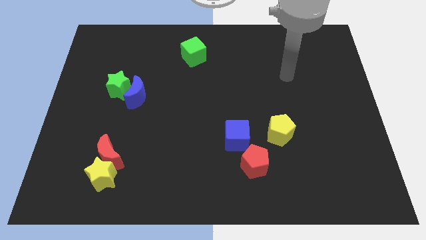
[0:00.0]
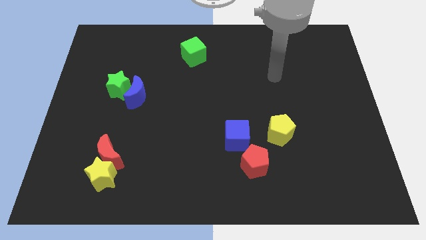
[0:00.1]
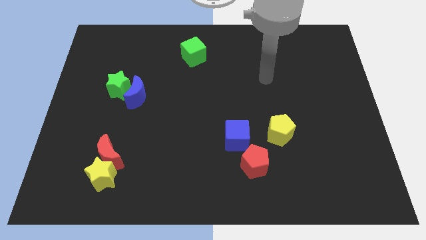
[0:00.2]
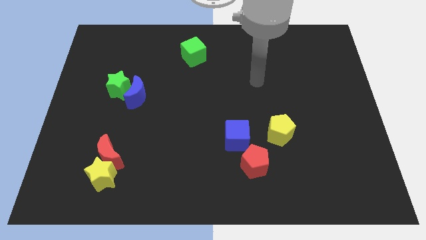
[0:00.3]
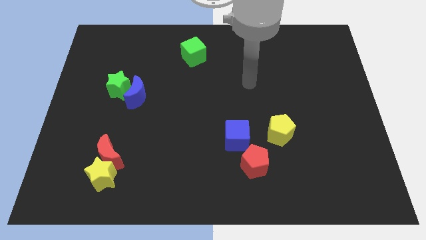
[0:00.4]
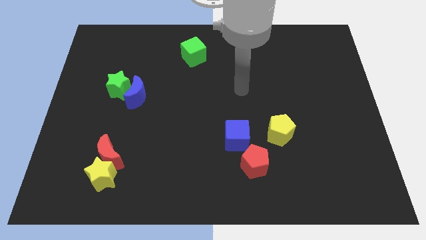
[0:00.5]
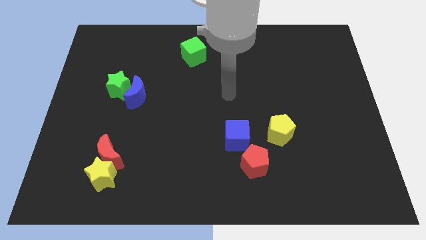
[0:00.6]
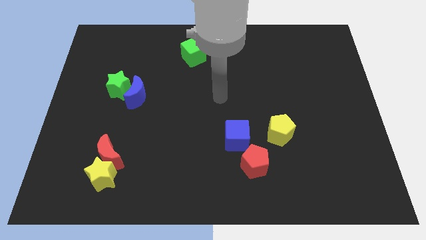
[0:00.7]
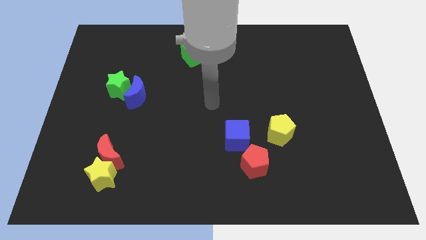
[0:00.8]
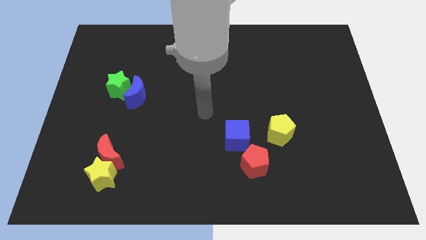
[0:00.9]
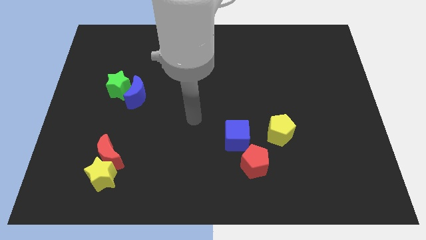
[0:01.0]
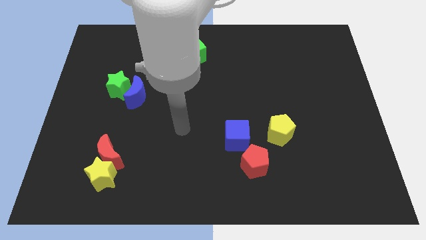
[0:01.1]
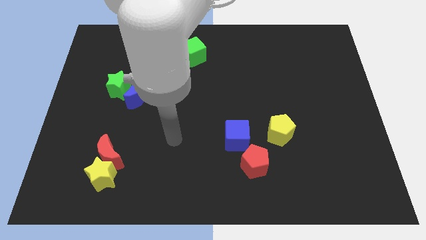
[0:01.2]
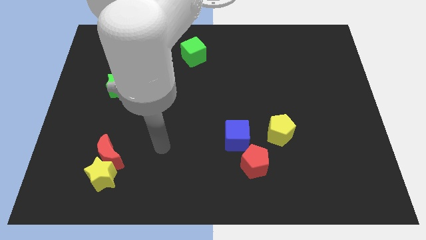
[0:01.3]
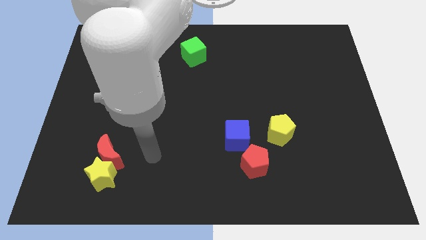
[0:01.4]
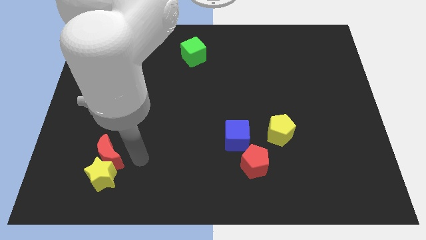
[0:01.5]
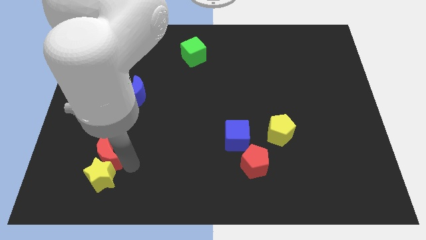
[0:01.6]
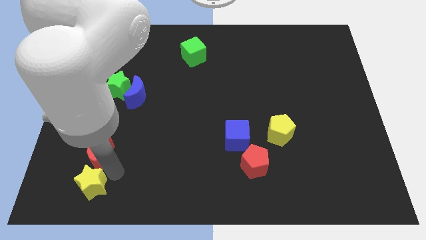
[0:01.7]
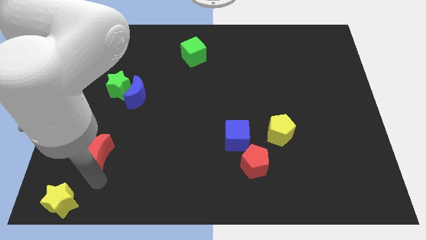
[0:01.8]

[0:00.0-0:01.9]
pull the red moon apart from the yellow star

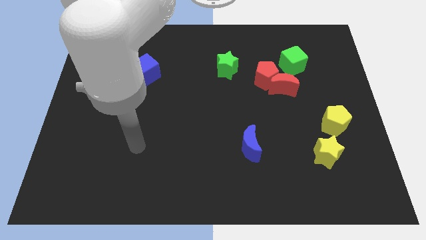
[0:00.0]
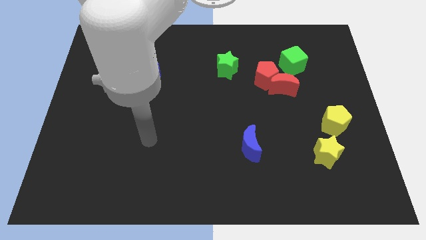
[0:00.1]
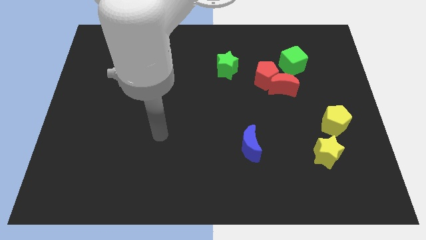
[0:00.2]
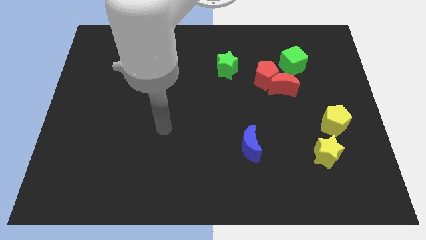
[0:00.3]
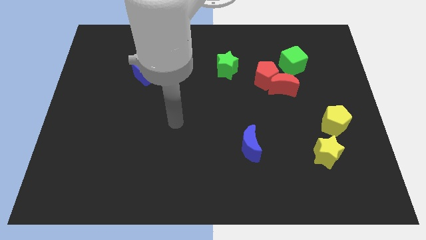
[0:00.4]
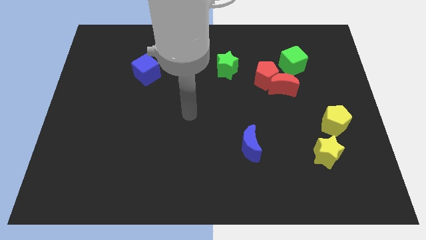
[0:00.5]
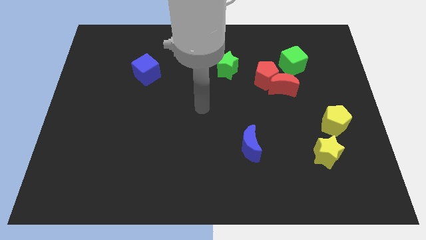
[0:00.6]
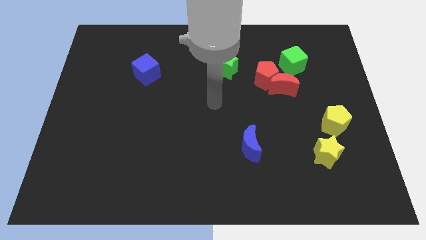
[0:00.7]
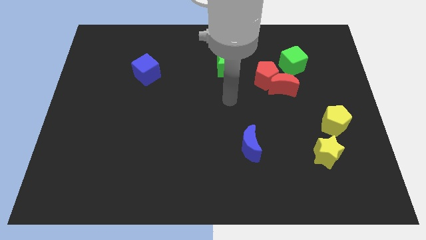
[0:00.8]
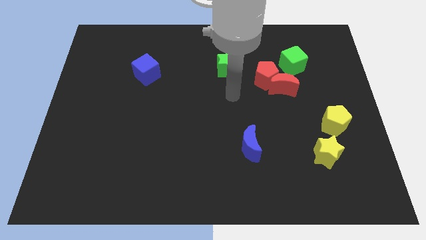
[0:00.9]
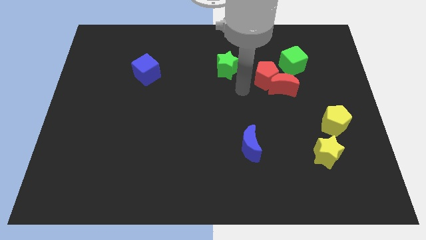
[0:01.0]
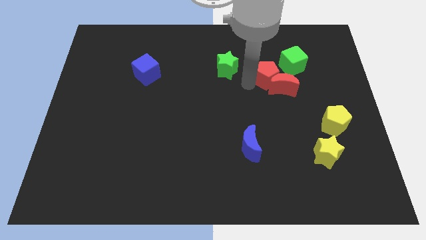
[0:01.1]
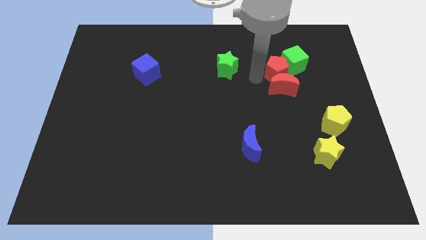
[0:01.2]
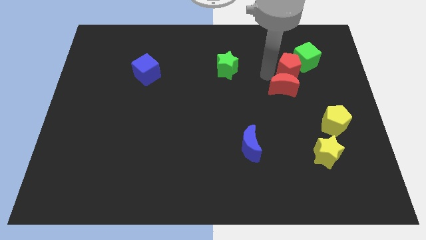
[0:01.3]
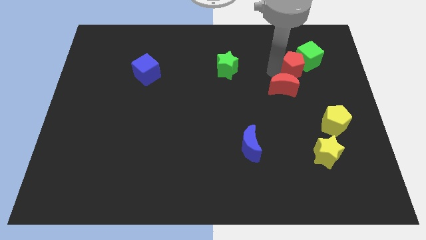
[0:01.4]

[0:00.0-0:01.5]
move the red moon away from the red pentagon and green cube

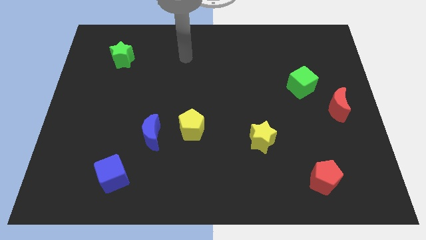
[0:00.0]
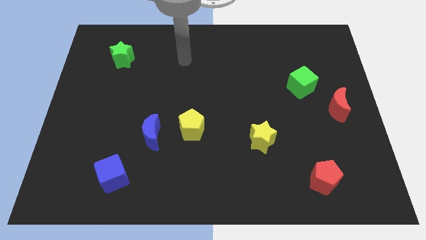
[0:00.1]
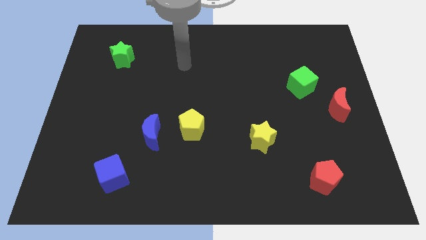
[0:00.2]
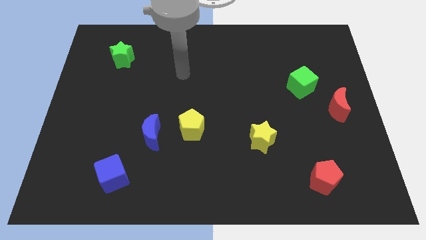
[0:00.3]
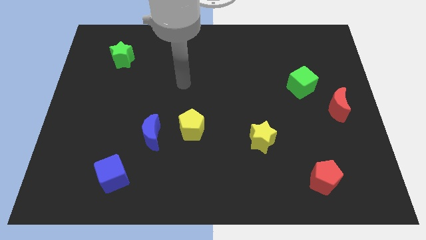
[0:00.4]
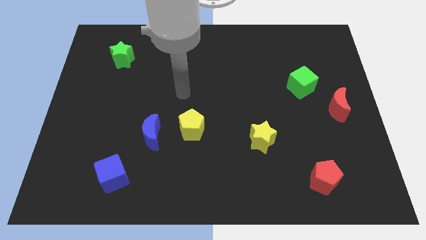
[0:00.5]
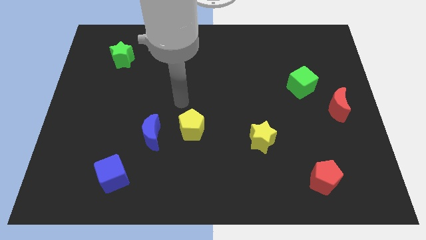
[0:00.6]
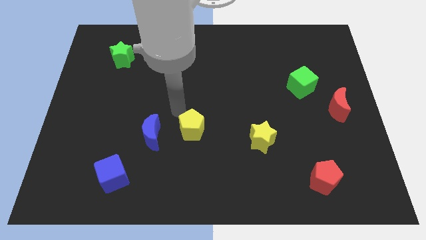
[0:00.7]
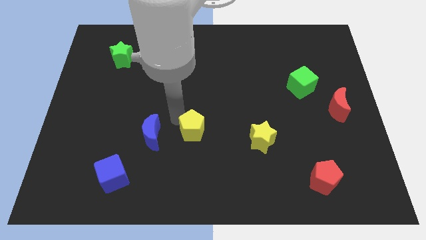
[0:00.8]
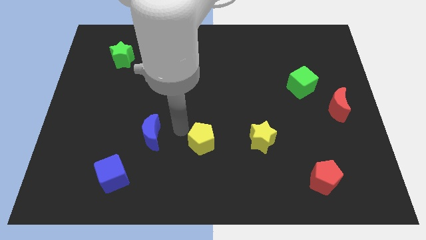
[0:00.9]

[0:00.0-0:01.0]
pull the blue moon apart from the yellow pentagon

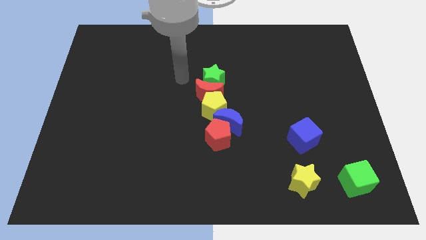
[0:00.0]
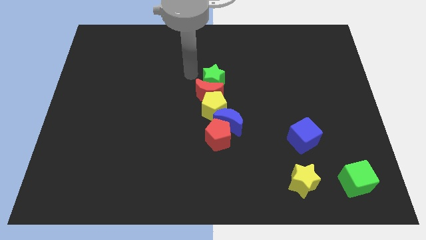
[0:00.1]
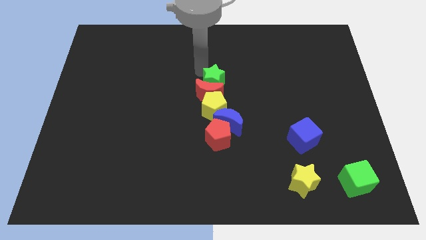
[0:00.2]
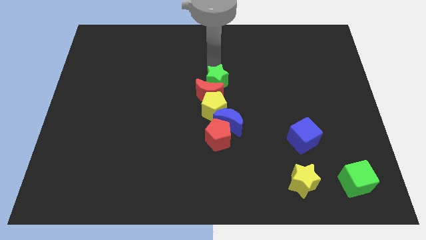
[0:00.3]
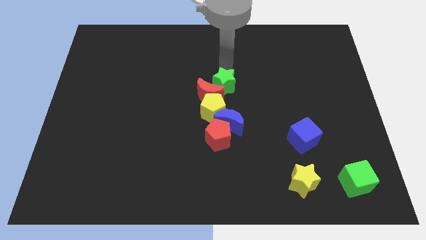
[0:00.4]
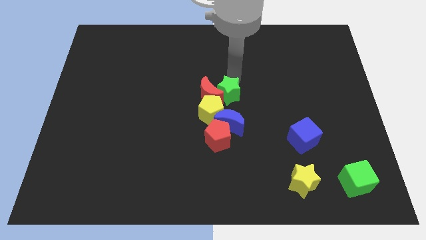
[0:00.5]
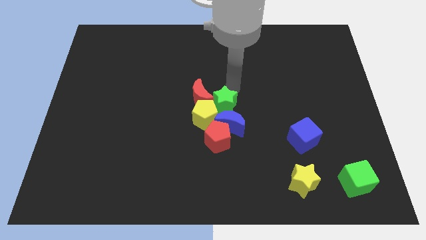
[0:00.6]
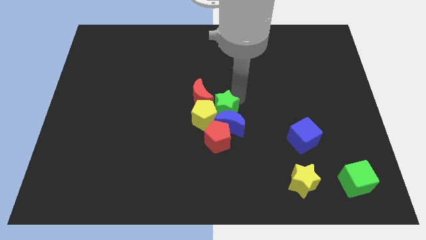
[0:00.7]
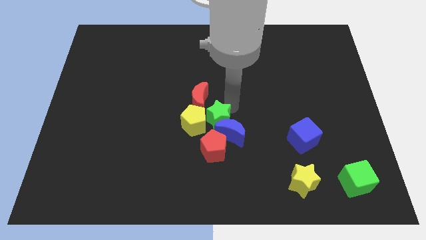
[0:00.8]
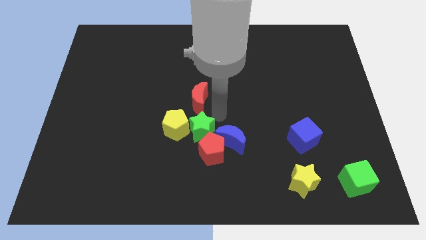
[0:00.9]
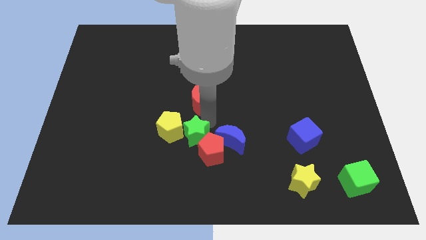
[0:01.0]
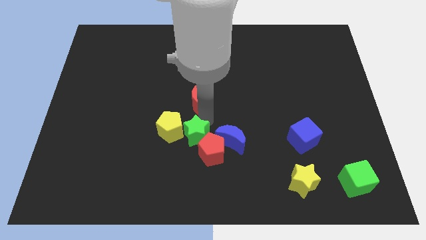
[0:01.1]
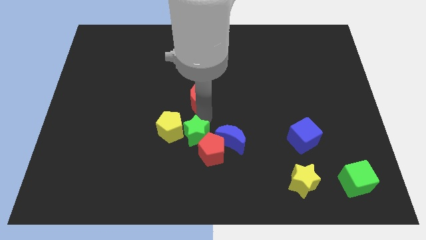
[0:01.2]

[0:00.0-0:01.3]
move the red moon away from the yellow pentagon, green star, and blue moon

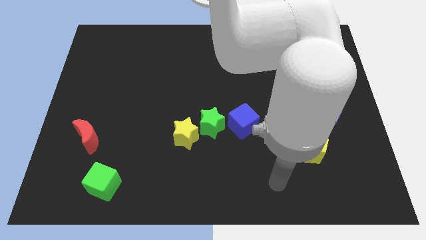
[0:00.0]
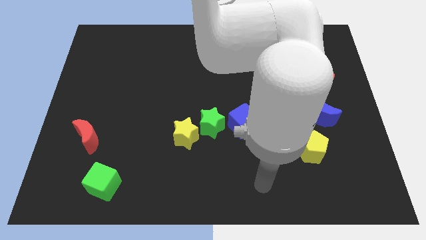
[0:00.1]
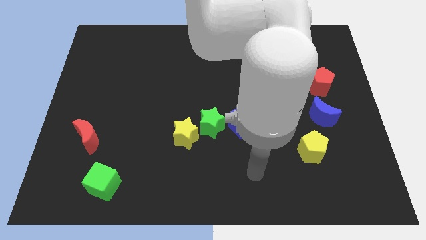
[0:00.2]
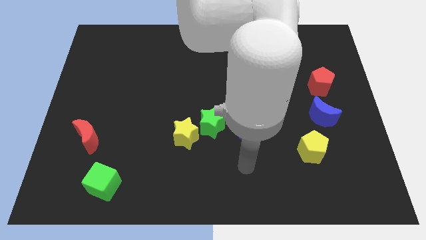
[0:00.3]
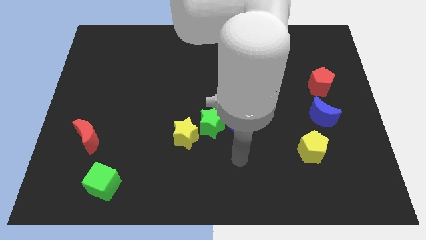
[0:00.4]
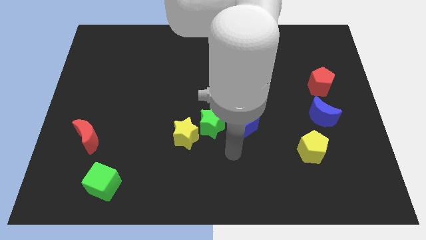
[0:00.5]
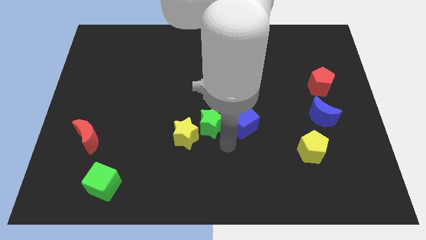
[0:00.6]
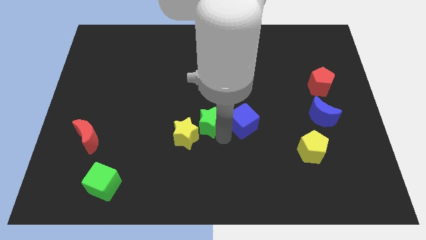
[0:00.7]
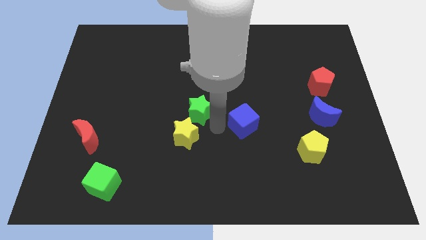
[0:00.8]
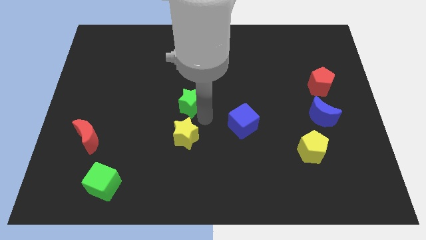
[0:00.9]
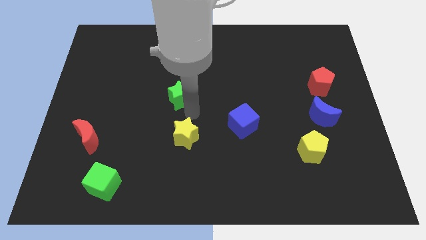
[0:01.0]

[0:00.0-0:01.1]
move the yellow star away from the green star

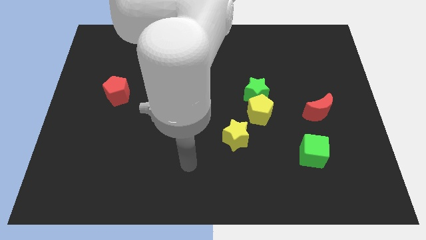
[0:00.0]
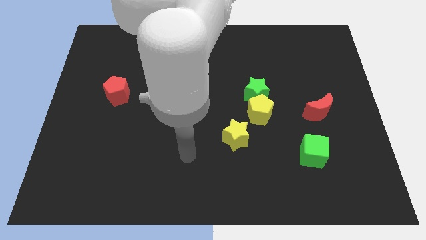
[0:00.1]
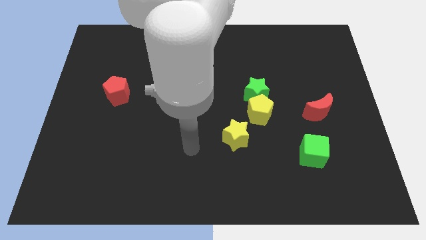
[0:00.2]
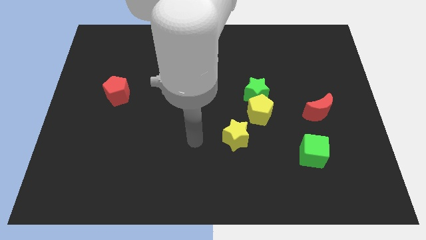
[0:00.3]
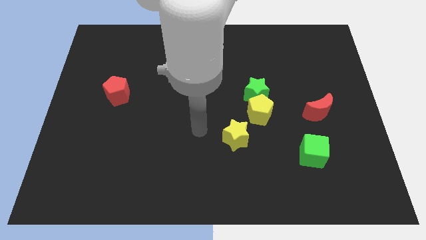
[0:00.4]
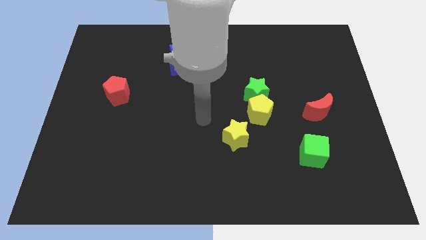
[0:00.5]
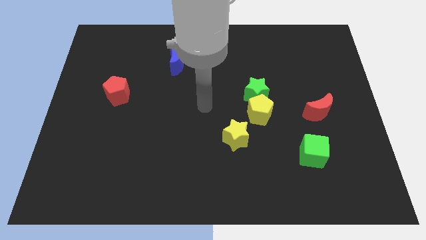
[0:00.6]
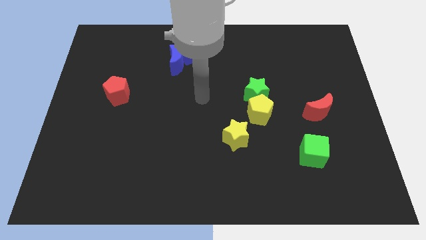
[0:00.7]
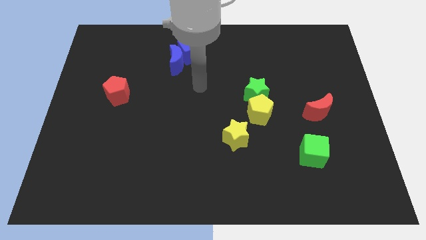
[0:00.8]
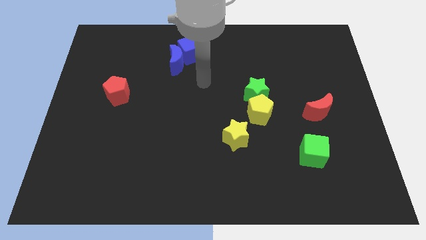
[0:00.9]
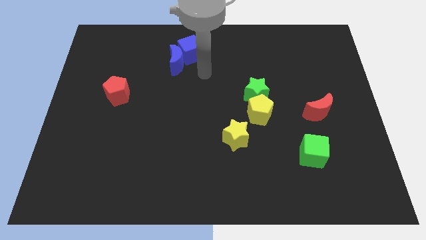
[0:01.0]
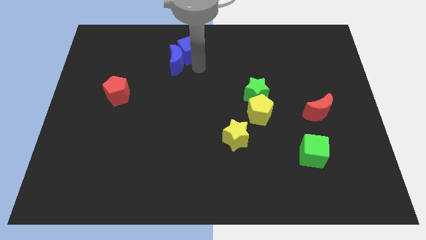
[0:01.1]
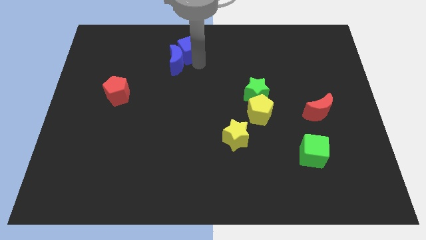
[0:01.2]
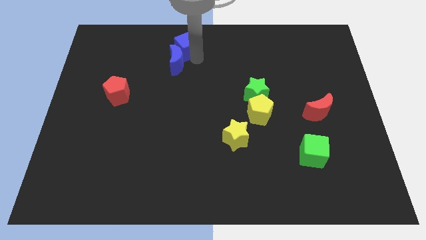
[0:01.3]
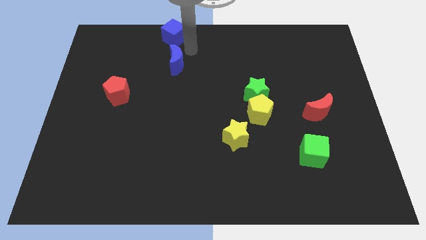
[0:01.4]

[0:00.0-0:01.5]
separate the blue moon from the blue cube

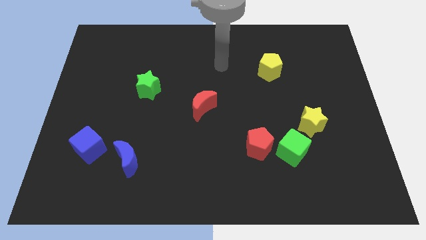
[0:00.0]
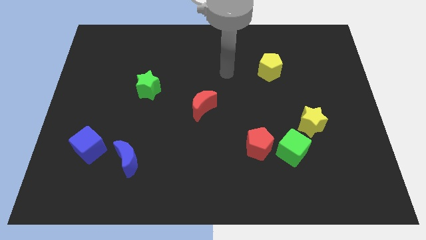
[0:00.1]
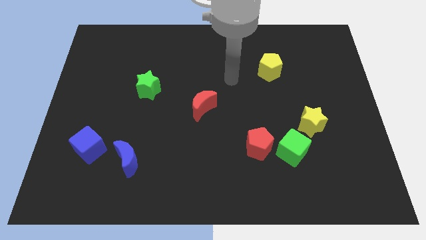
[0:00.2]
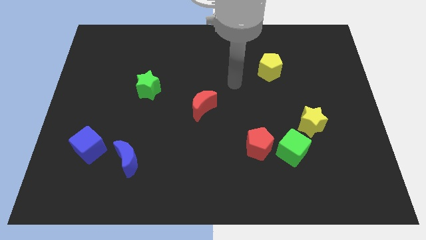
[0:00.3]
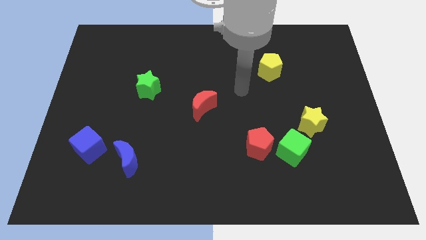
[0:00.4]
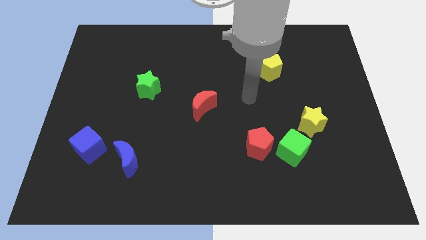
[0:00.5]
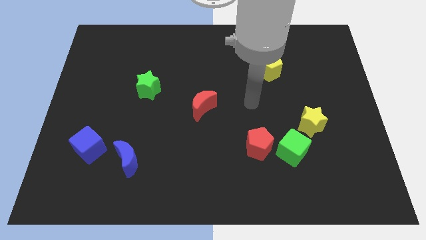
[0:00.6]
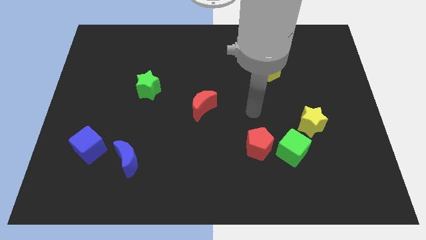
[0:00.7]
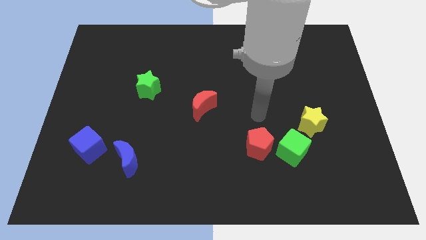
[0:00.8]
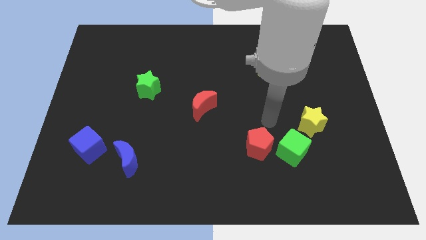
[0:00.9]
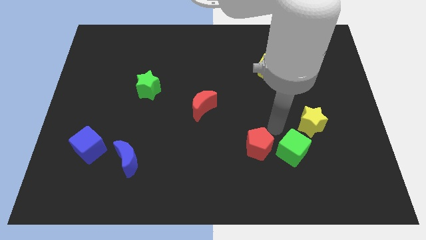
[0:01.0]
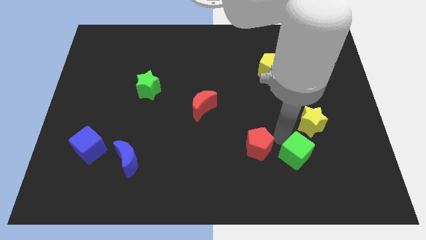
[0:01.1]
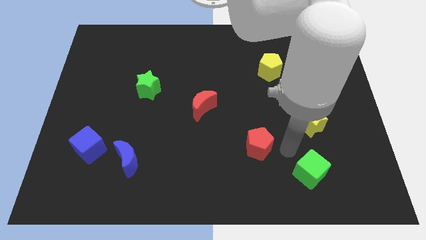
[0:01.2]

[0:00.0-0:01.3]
pull the red pentagon apart from the green cube
